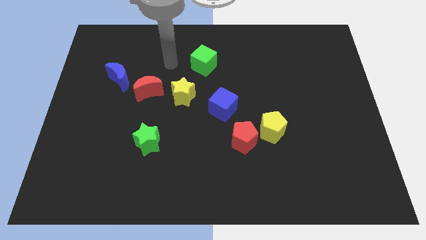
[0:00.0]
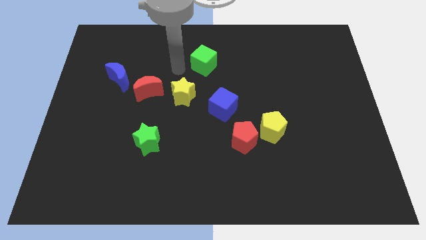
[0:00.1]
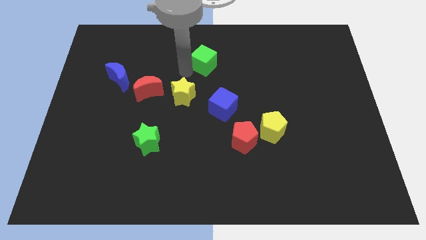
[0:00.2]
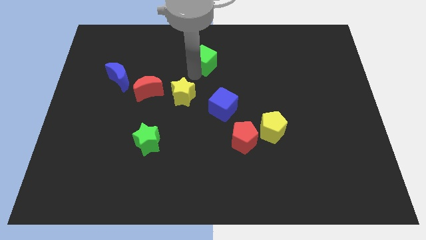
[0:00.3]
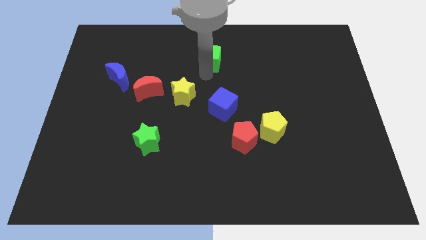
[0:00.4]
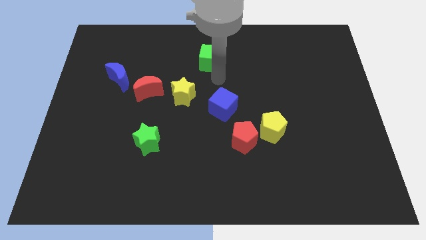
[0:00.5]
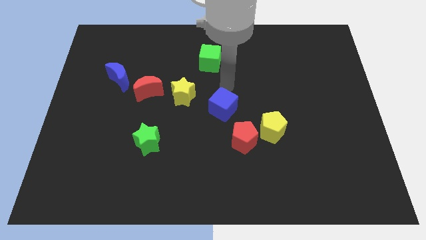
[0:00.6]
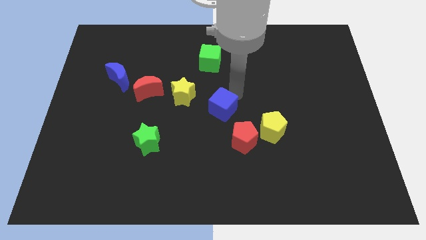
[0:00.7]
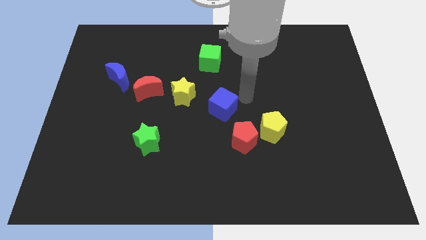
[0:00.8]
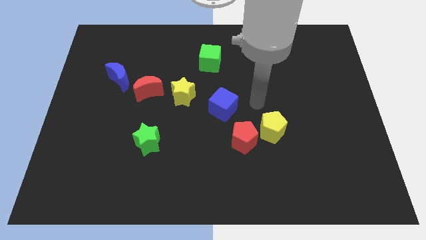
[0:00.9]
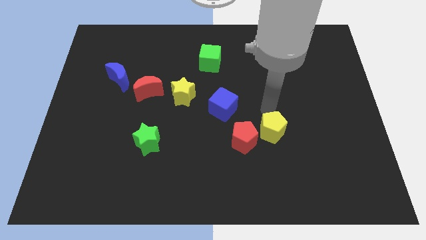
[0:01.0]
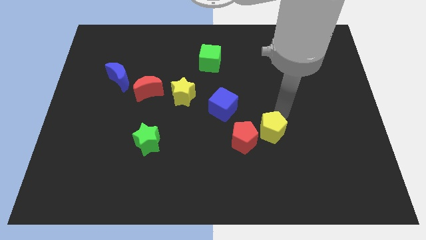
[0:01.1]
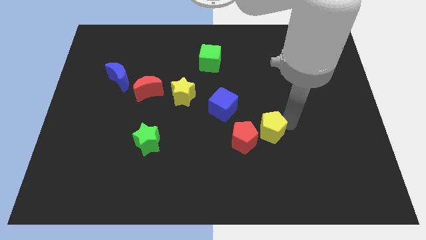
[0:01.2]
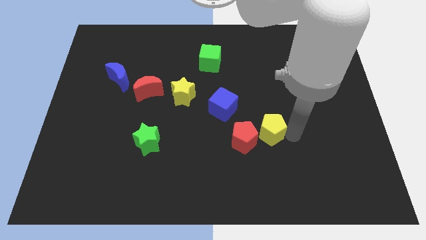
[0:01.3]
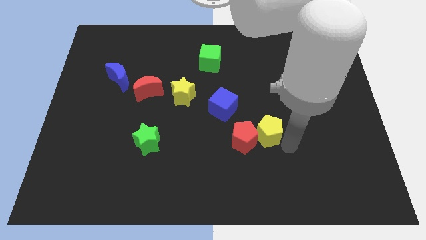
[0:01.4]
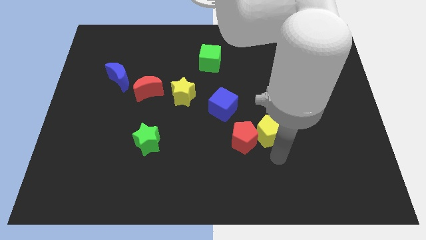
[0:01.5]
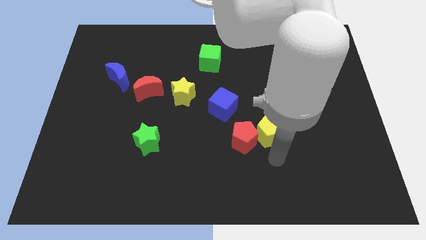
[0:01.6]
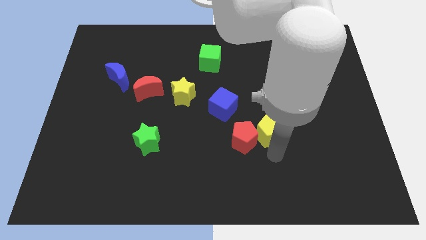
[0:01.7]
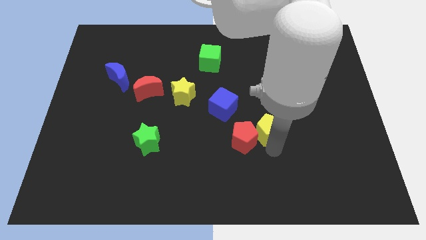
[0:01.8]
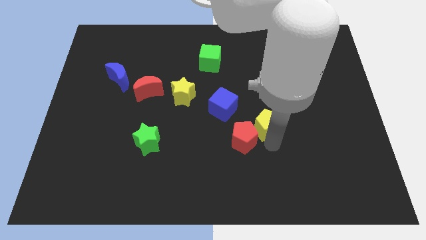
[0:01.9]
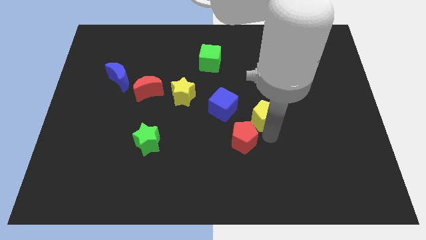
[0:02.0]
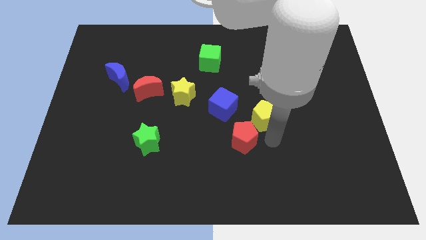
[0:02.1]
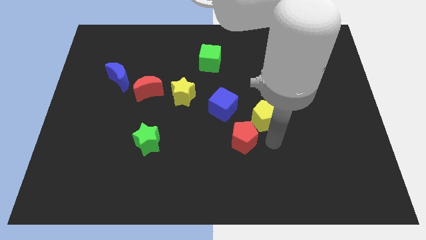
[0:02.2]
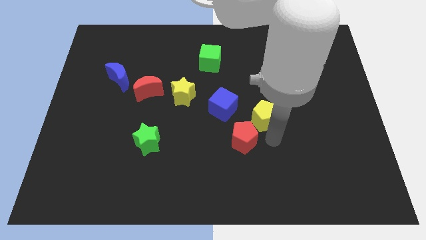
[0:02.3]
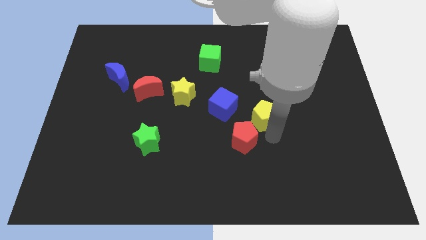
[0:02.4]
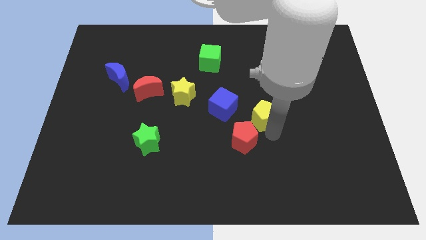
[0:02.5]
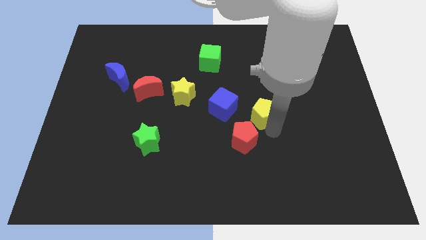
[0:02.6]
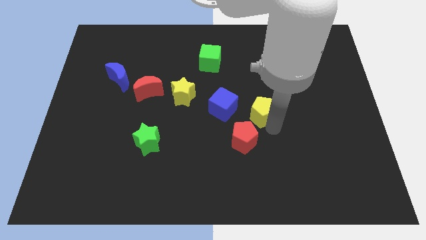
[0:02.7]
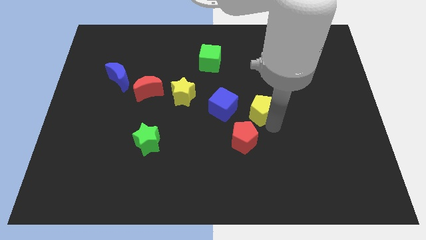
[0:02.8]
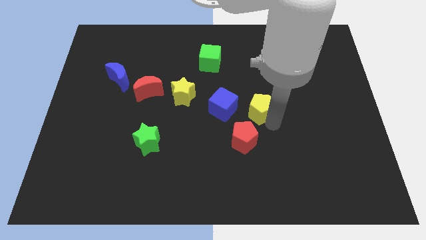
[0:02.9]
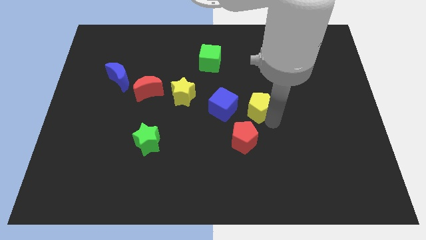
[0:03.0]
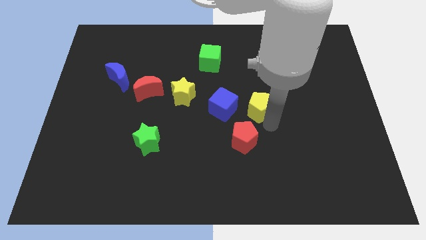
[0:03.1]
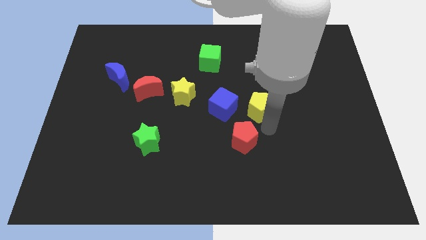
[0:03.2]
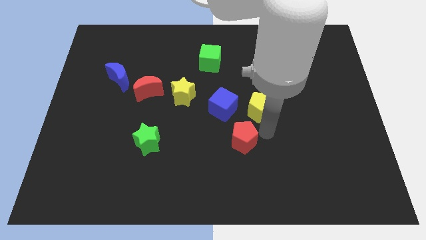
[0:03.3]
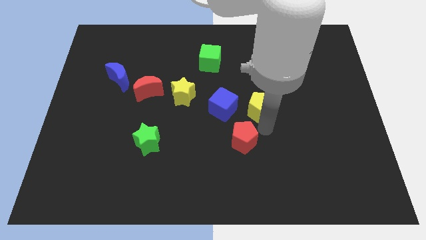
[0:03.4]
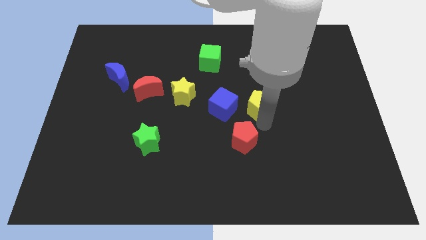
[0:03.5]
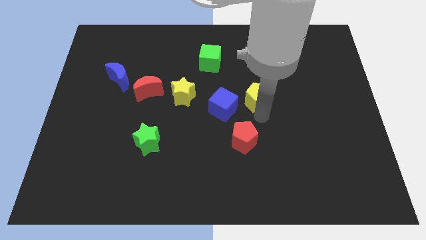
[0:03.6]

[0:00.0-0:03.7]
slightly push the yellow pentagon upwards

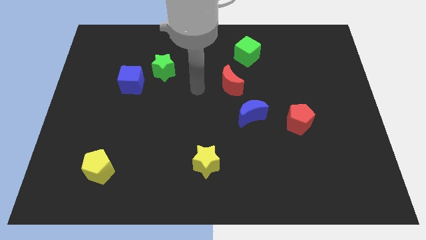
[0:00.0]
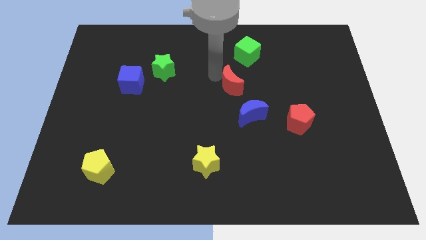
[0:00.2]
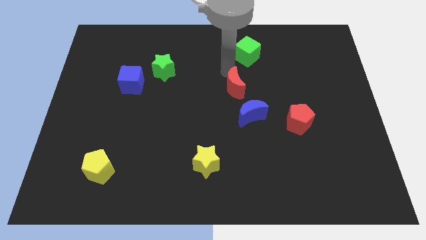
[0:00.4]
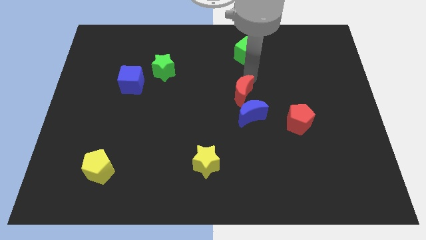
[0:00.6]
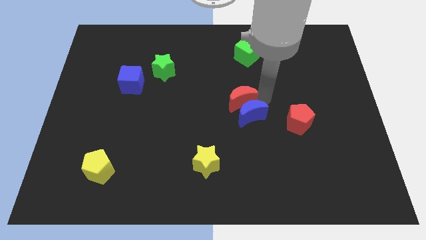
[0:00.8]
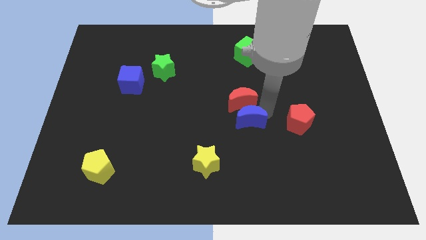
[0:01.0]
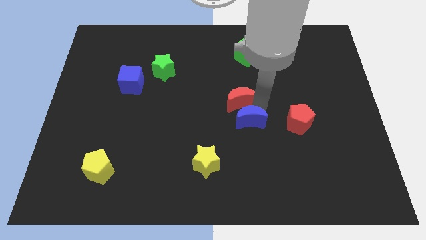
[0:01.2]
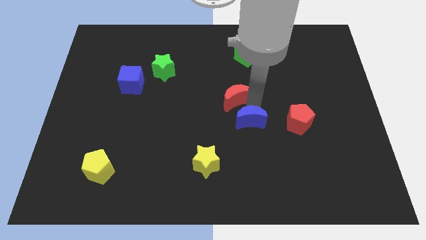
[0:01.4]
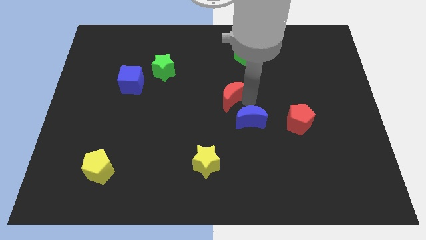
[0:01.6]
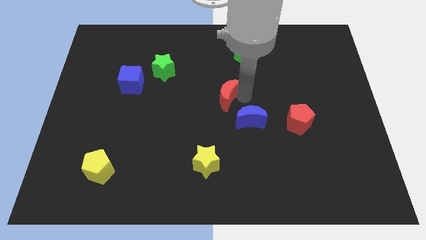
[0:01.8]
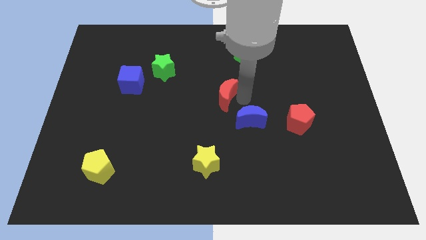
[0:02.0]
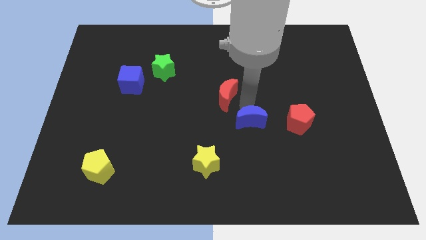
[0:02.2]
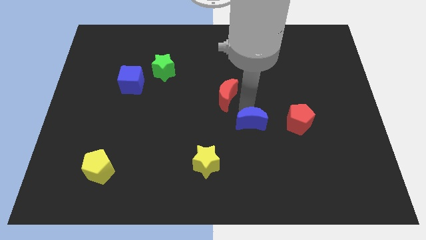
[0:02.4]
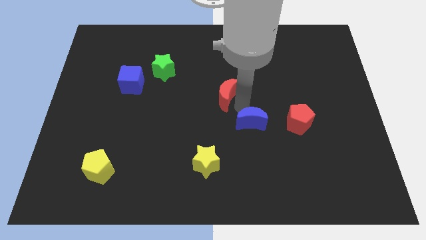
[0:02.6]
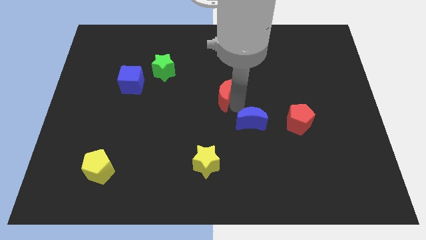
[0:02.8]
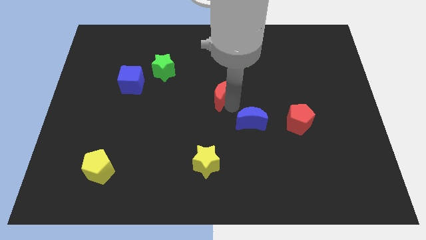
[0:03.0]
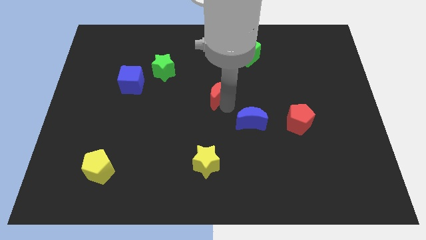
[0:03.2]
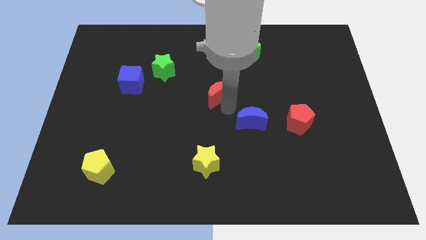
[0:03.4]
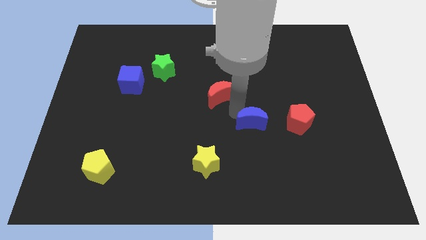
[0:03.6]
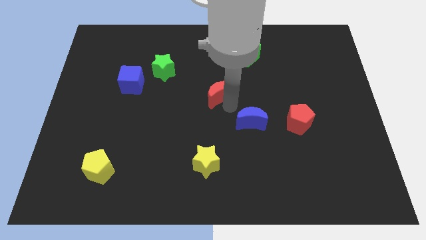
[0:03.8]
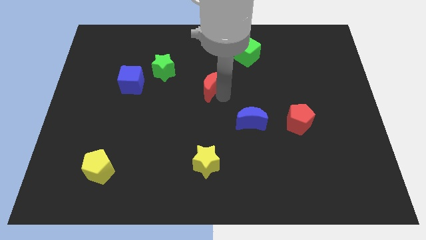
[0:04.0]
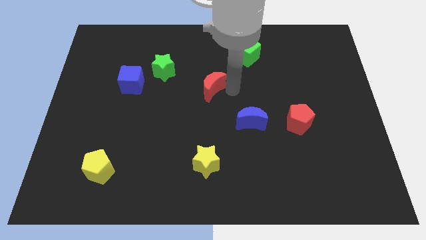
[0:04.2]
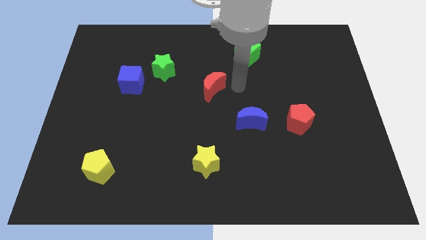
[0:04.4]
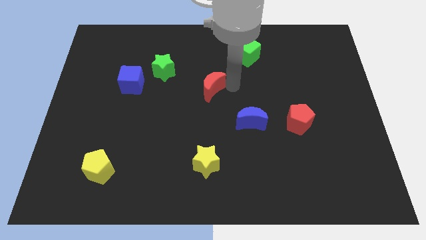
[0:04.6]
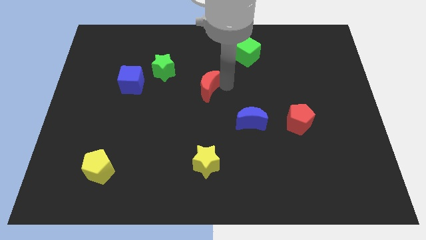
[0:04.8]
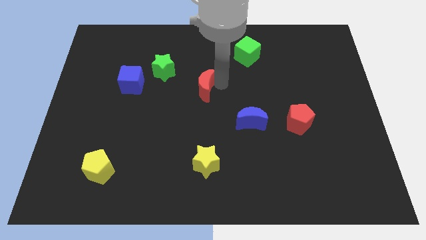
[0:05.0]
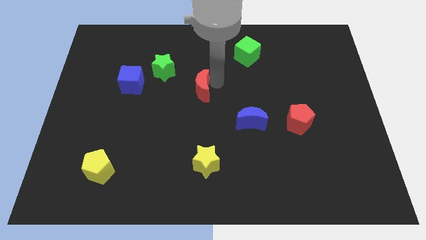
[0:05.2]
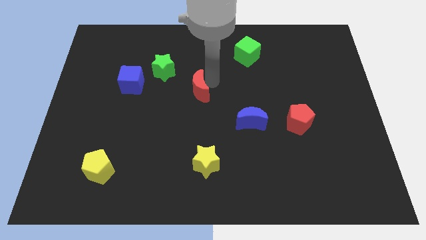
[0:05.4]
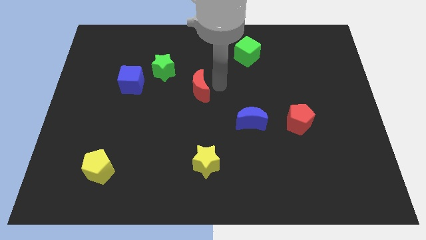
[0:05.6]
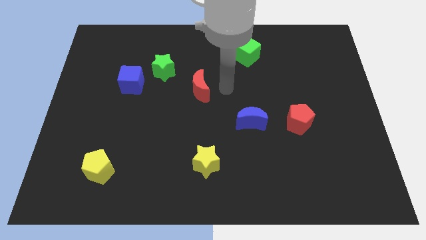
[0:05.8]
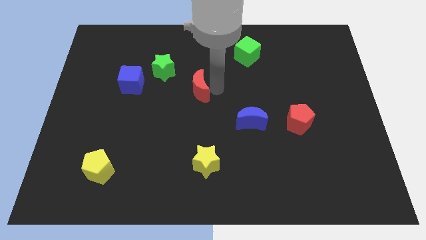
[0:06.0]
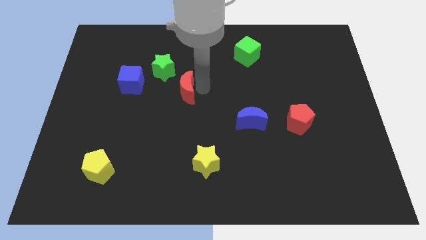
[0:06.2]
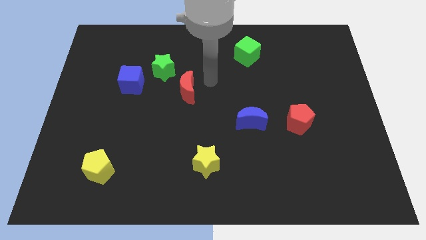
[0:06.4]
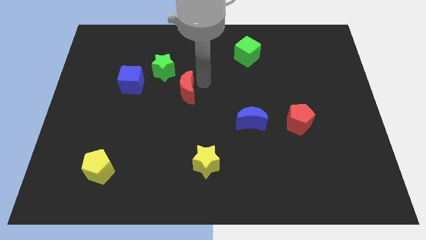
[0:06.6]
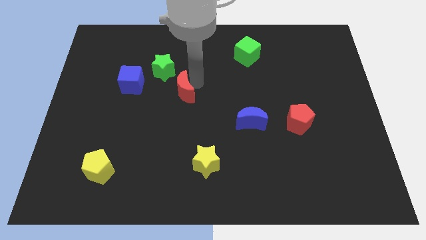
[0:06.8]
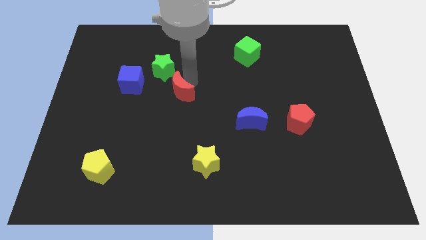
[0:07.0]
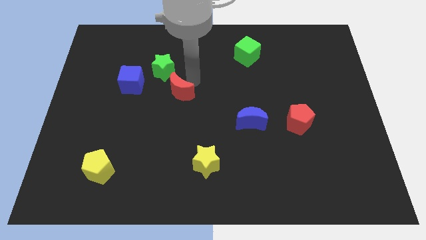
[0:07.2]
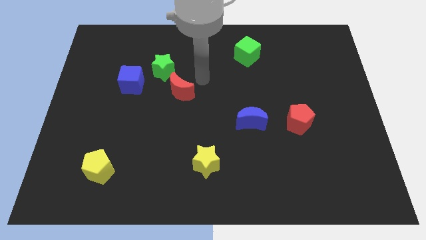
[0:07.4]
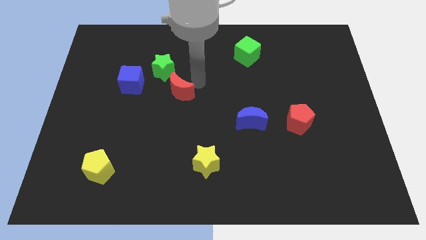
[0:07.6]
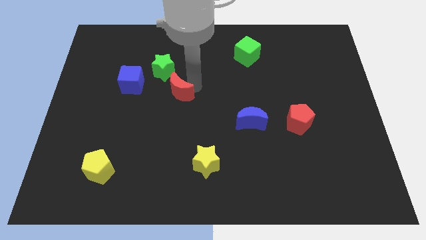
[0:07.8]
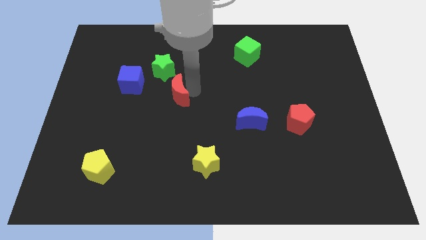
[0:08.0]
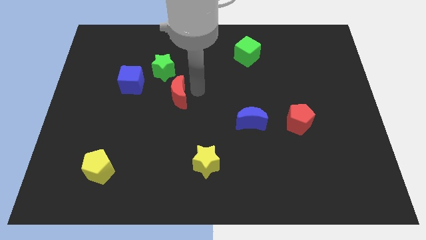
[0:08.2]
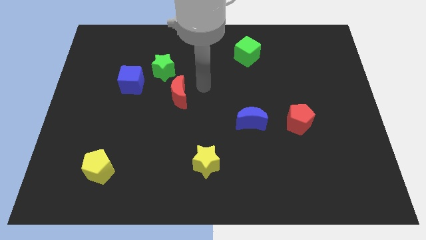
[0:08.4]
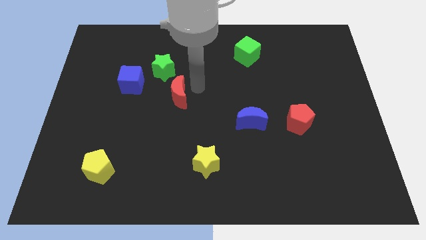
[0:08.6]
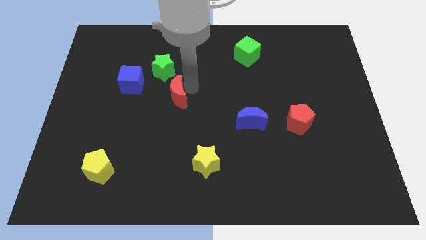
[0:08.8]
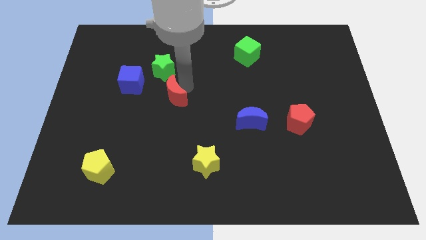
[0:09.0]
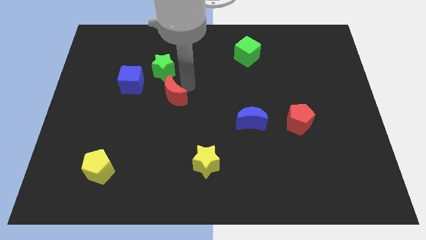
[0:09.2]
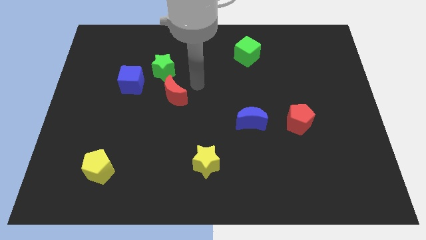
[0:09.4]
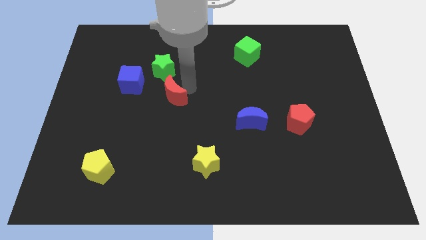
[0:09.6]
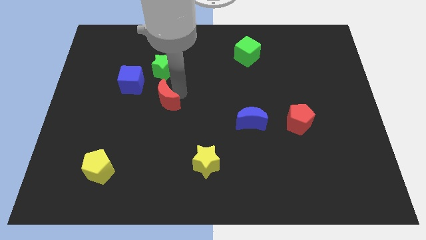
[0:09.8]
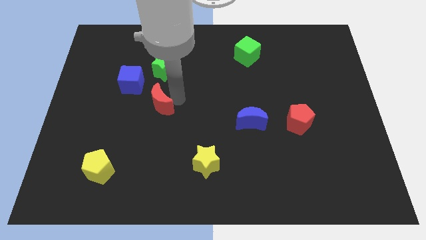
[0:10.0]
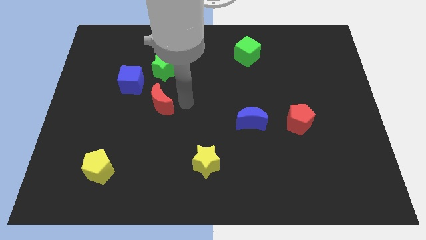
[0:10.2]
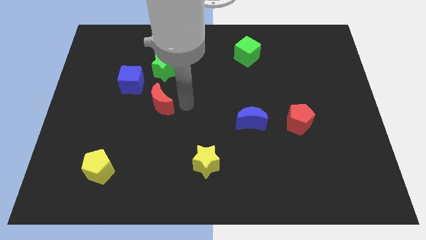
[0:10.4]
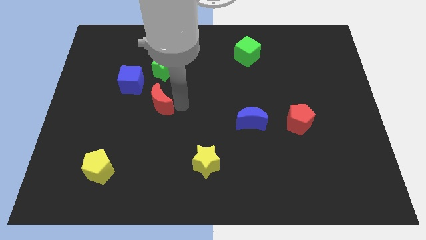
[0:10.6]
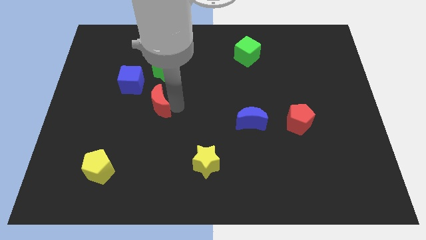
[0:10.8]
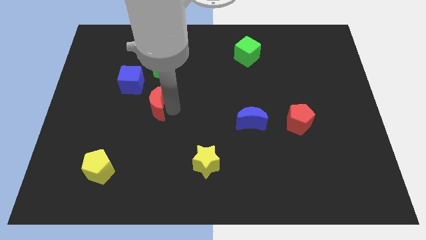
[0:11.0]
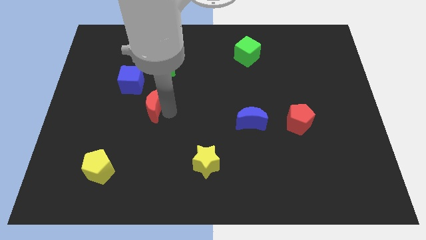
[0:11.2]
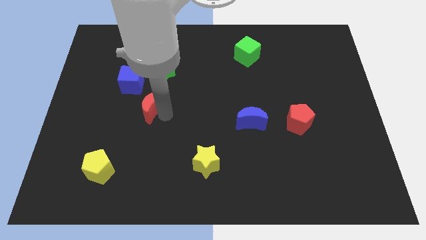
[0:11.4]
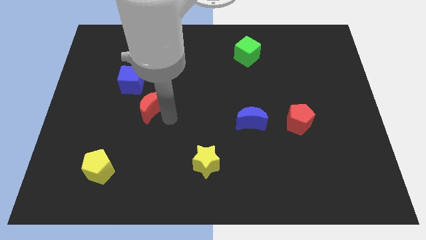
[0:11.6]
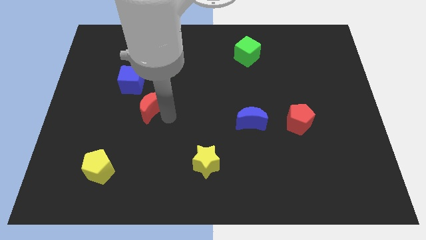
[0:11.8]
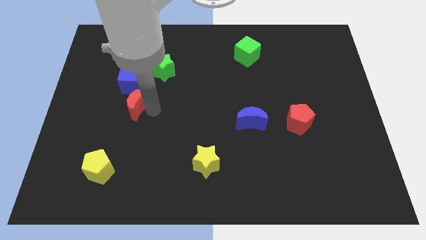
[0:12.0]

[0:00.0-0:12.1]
move the red moon to the left
